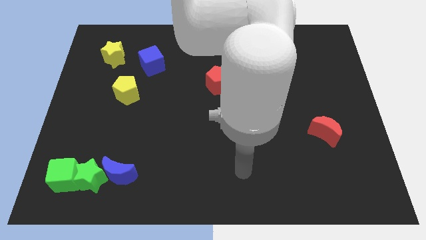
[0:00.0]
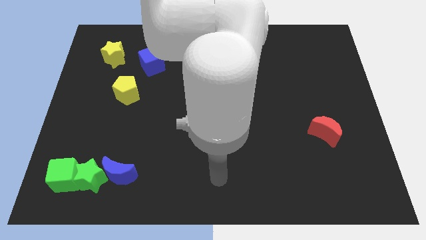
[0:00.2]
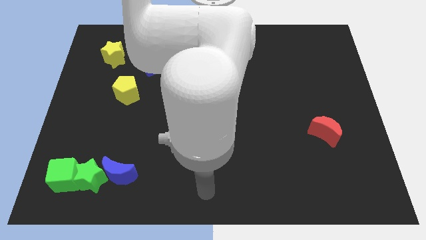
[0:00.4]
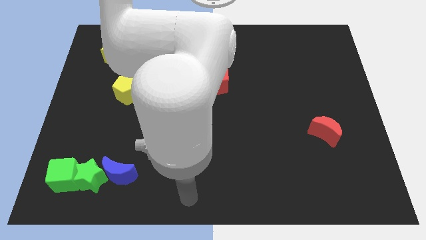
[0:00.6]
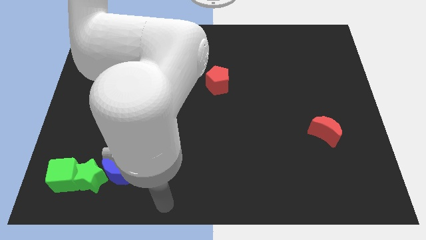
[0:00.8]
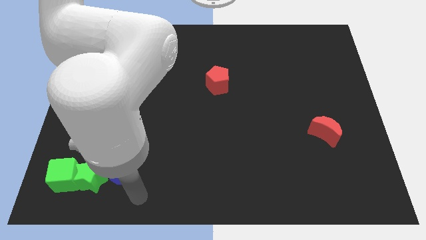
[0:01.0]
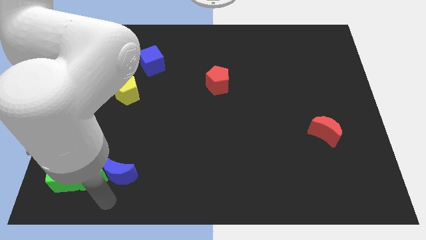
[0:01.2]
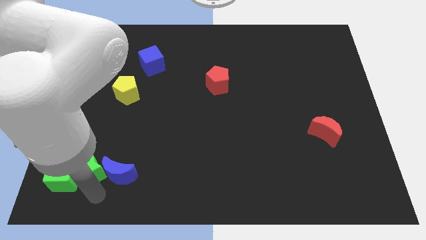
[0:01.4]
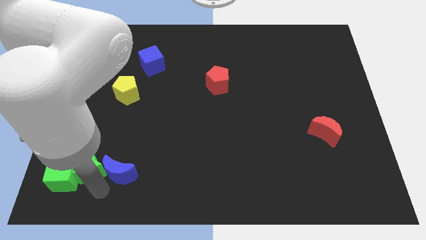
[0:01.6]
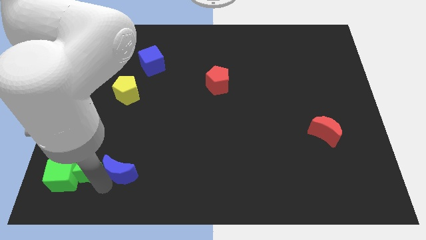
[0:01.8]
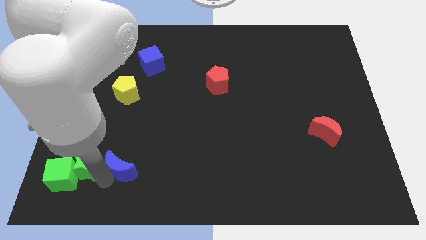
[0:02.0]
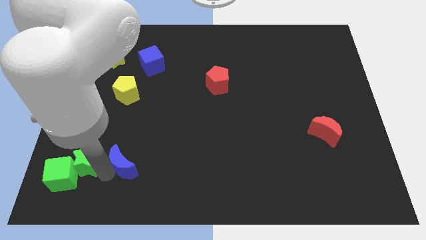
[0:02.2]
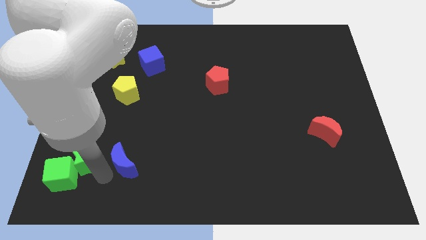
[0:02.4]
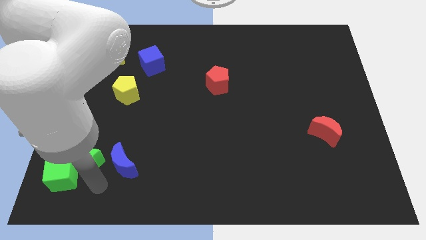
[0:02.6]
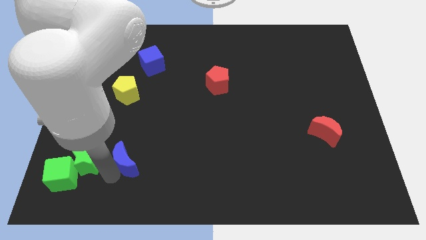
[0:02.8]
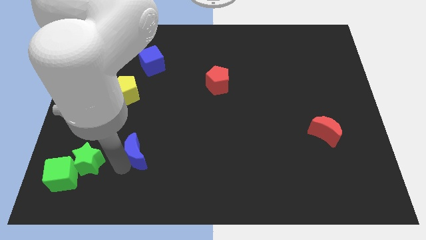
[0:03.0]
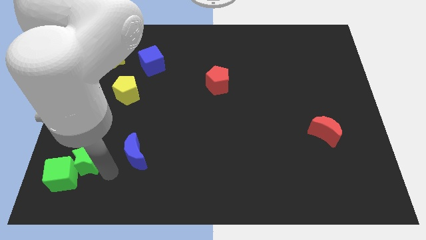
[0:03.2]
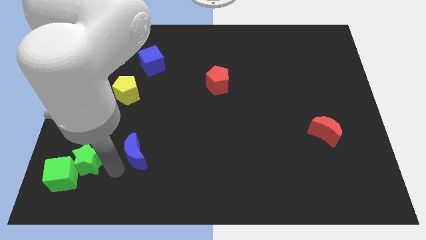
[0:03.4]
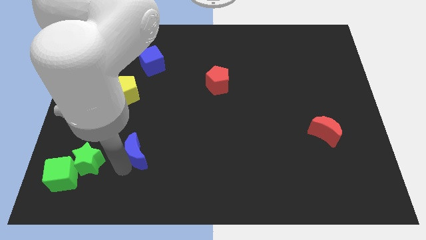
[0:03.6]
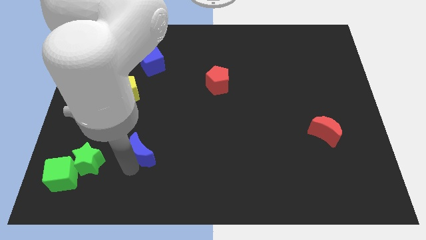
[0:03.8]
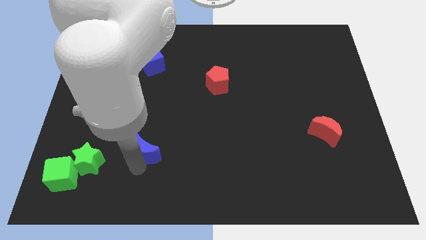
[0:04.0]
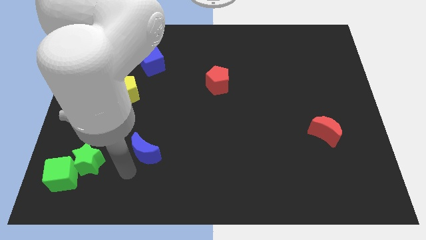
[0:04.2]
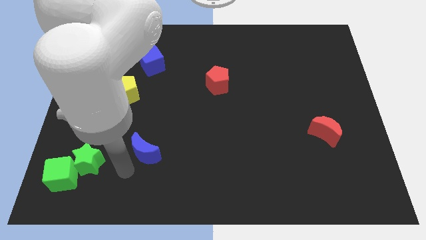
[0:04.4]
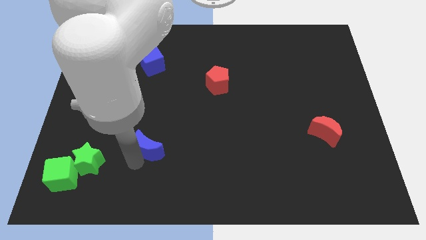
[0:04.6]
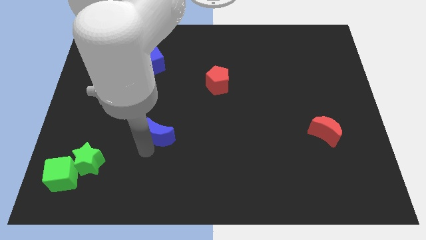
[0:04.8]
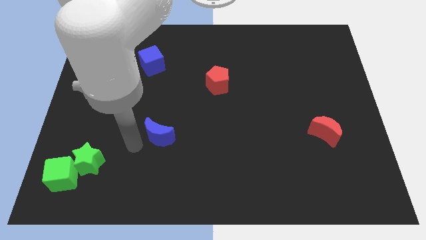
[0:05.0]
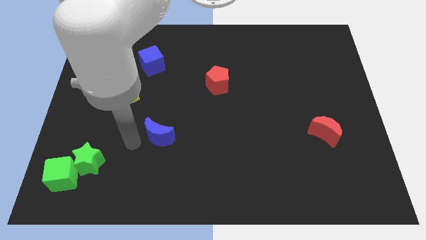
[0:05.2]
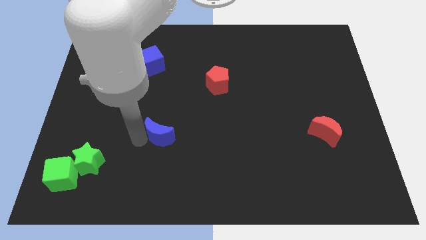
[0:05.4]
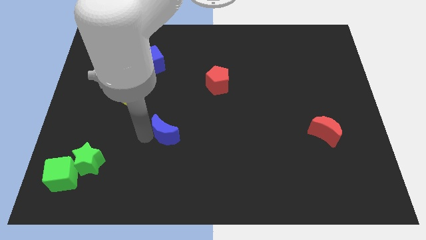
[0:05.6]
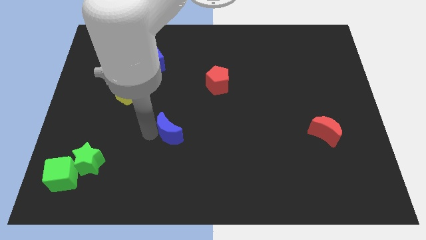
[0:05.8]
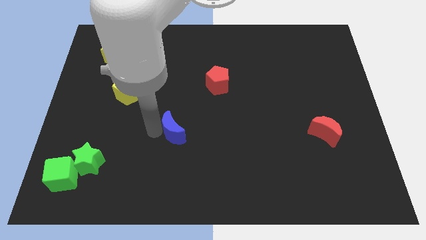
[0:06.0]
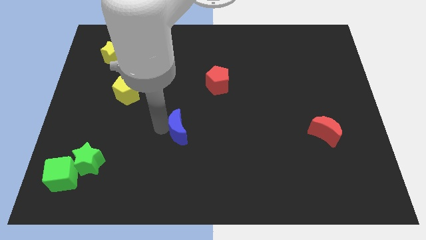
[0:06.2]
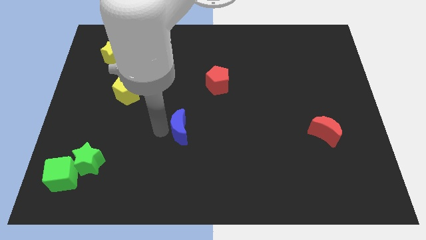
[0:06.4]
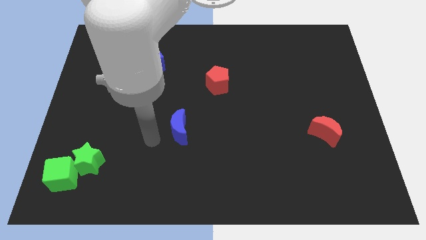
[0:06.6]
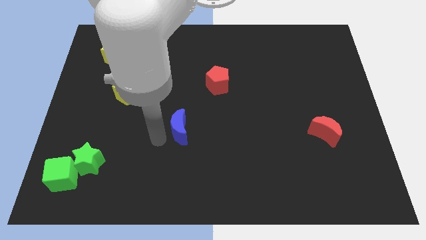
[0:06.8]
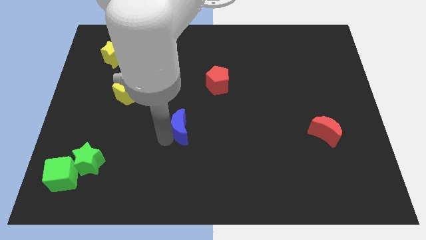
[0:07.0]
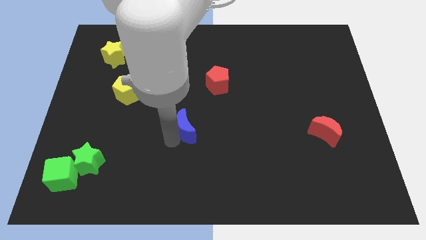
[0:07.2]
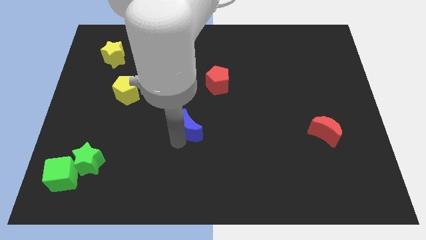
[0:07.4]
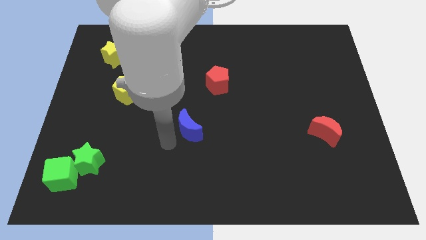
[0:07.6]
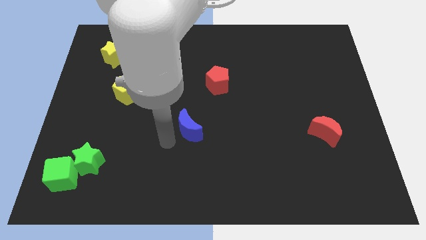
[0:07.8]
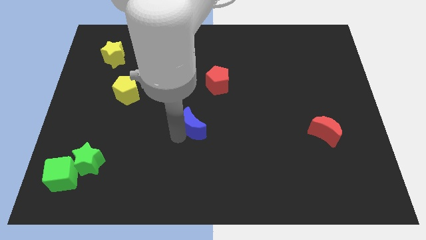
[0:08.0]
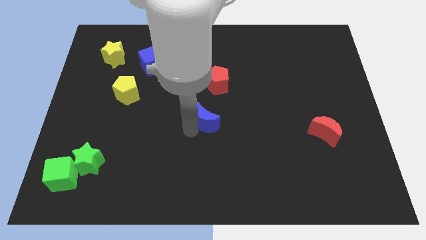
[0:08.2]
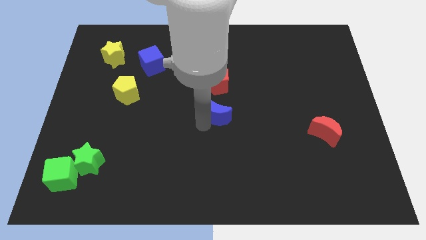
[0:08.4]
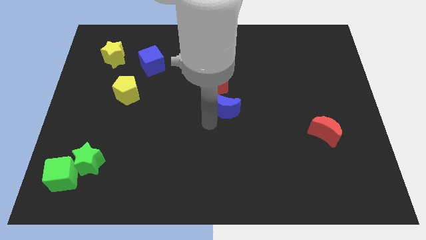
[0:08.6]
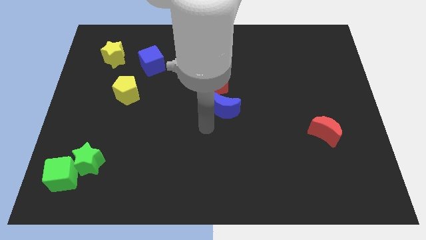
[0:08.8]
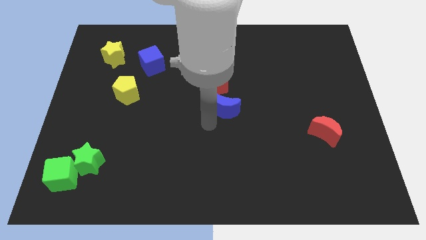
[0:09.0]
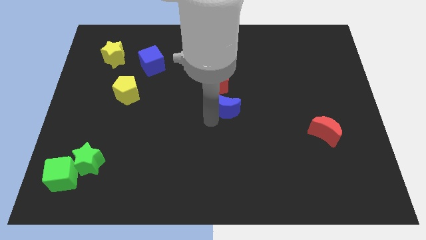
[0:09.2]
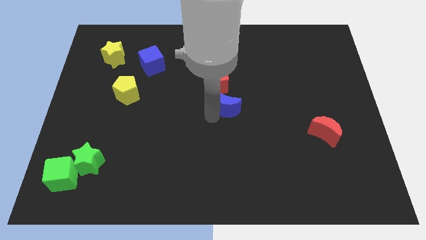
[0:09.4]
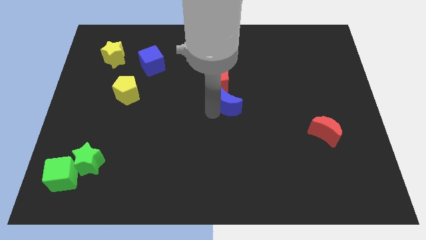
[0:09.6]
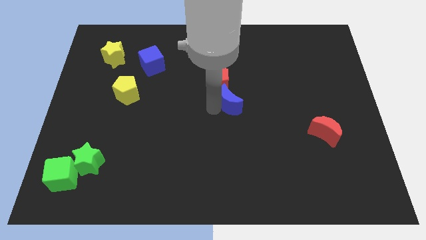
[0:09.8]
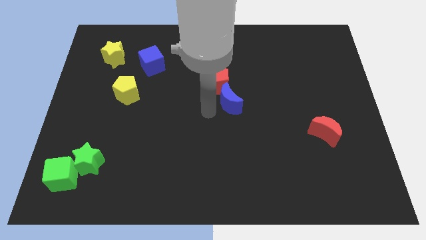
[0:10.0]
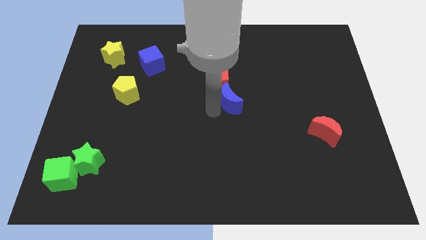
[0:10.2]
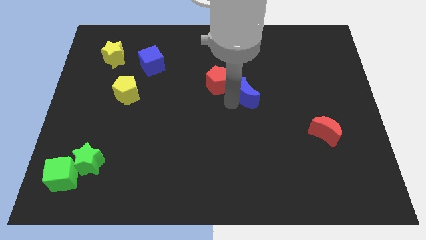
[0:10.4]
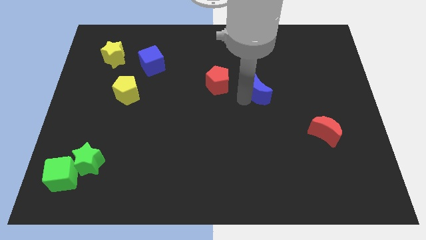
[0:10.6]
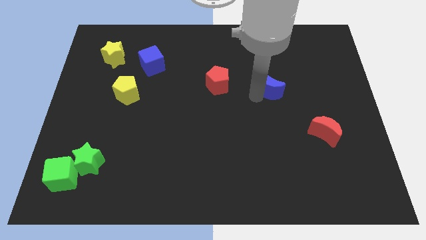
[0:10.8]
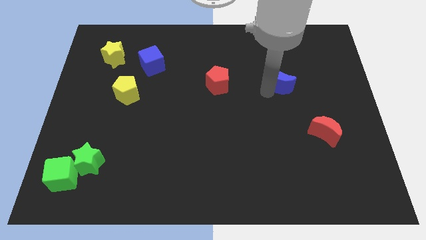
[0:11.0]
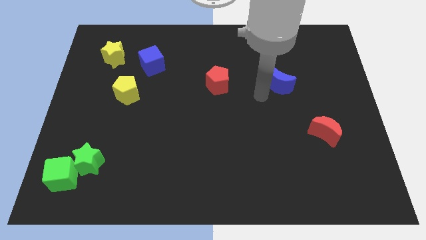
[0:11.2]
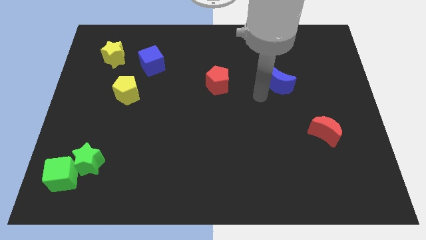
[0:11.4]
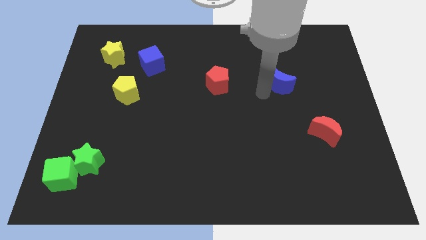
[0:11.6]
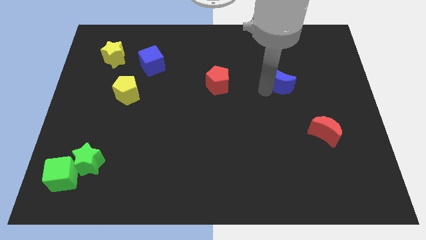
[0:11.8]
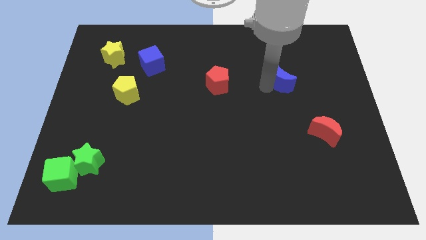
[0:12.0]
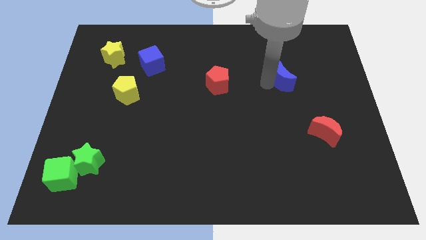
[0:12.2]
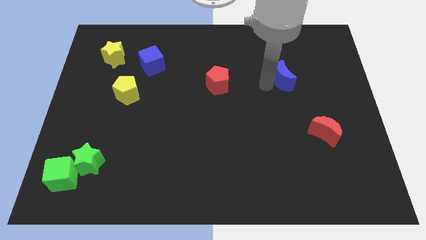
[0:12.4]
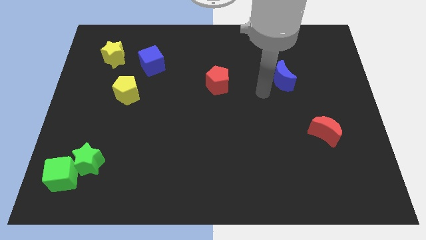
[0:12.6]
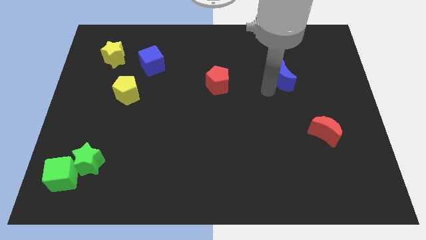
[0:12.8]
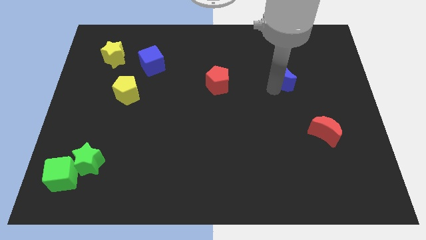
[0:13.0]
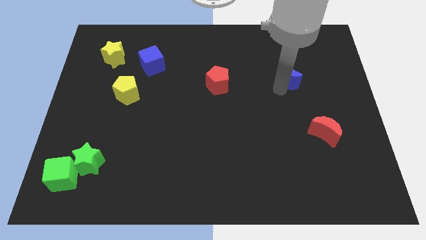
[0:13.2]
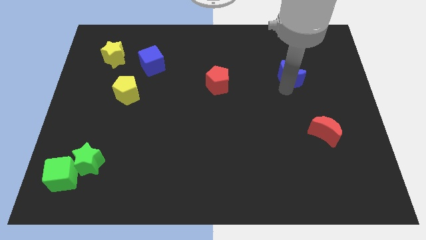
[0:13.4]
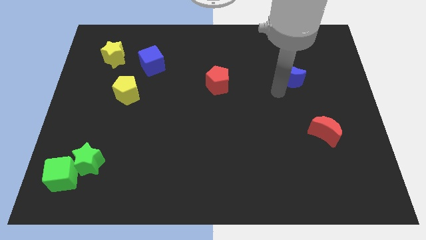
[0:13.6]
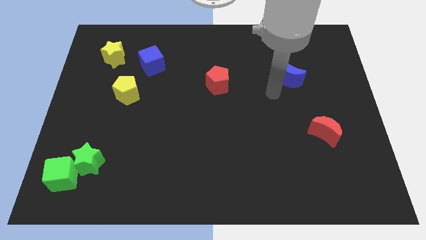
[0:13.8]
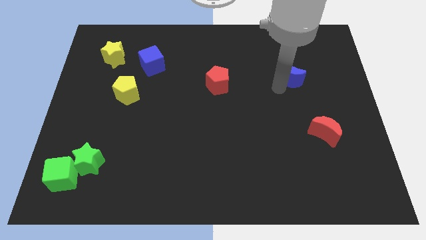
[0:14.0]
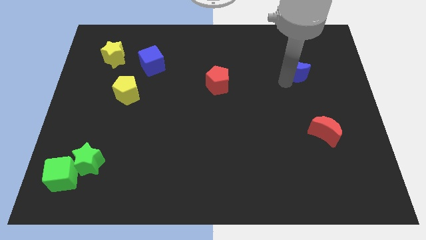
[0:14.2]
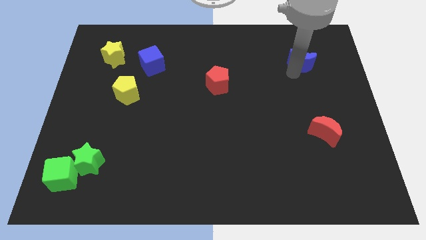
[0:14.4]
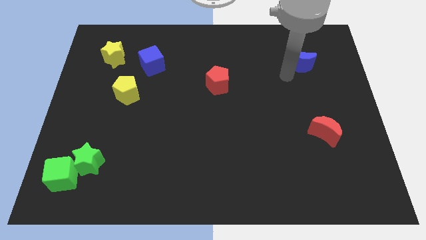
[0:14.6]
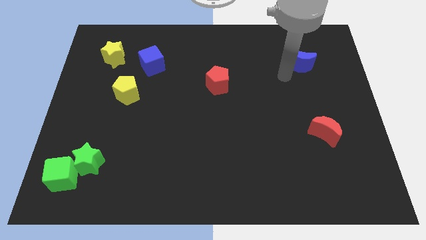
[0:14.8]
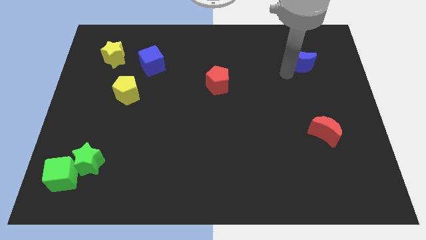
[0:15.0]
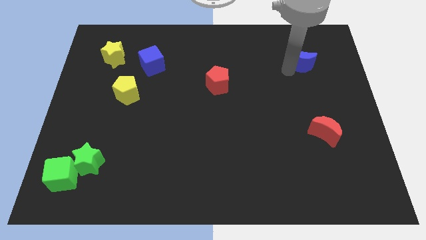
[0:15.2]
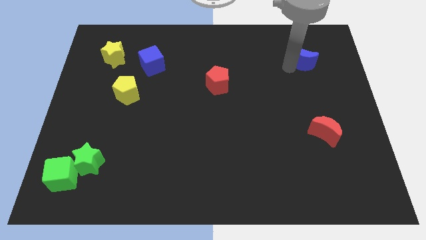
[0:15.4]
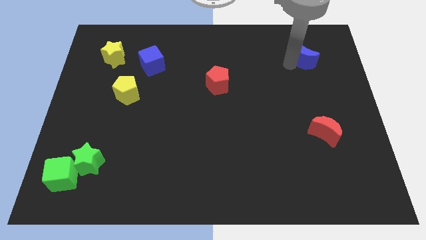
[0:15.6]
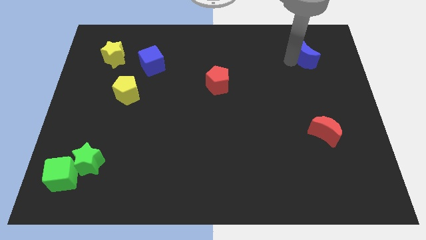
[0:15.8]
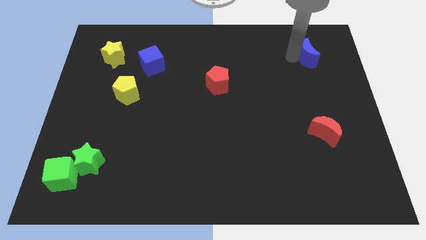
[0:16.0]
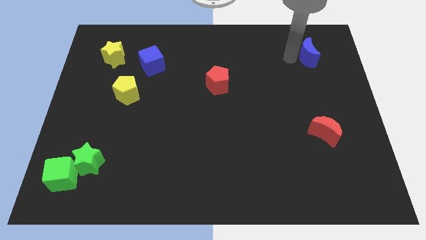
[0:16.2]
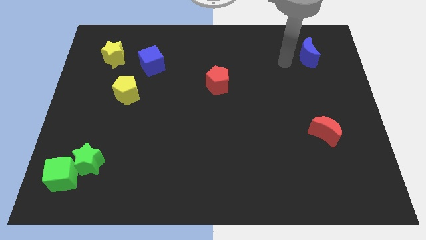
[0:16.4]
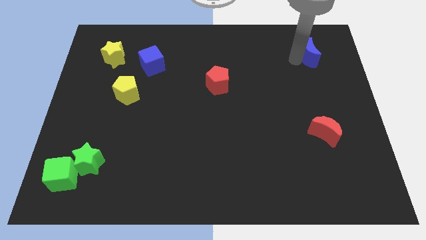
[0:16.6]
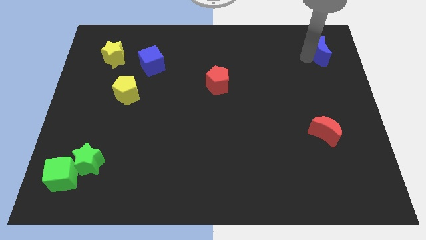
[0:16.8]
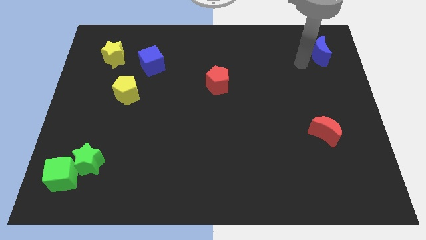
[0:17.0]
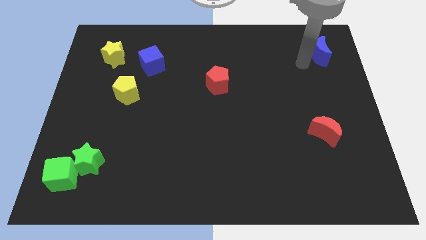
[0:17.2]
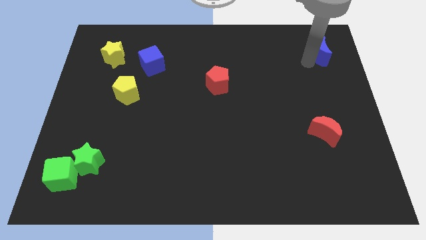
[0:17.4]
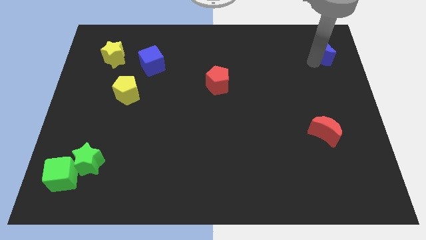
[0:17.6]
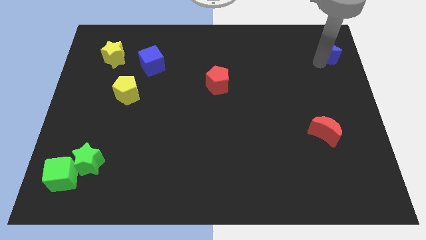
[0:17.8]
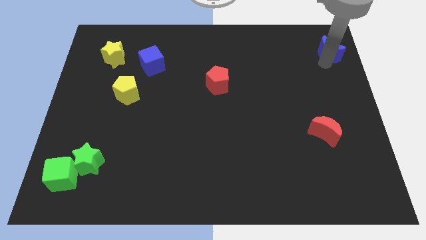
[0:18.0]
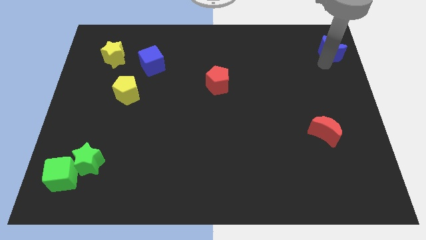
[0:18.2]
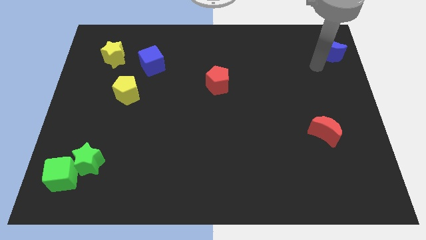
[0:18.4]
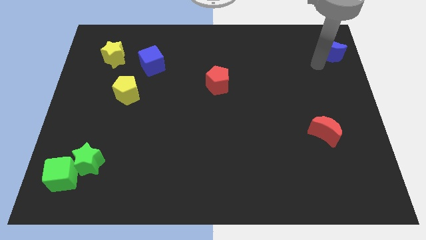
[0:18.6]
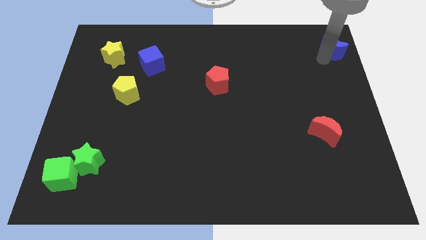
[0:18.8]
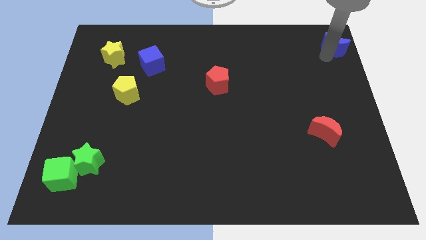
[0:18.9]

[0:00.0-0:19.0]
put the blue moon to the top right corner
